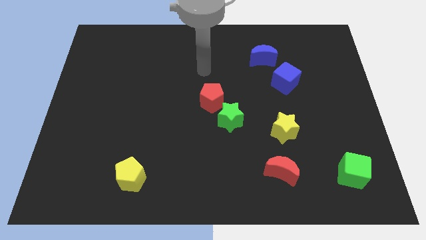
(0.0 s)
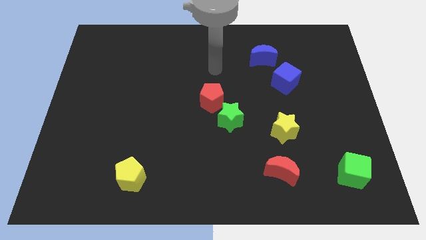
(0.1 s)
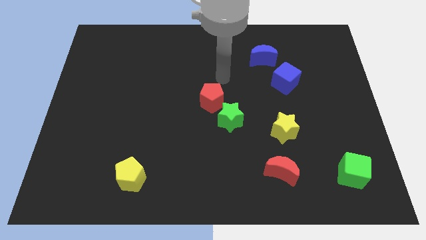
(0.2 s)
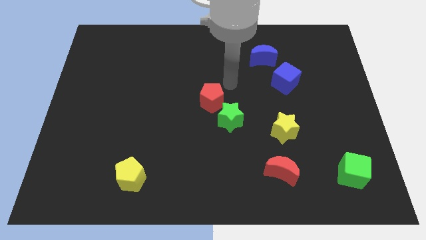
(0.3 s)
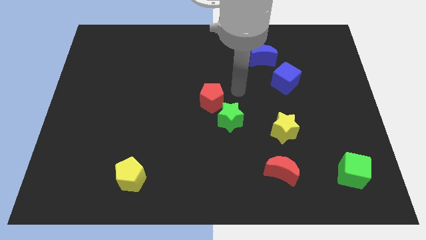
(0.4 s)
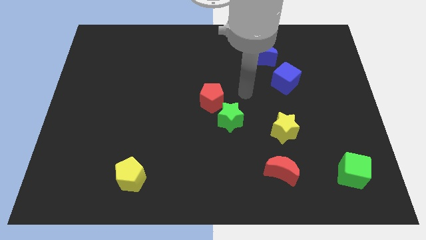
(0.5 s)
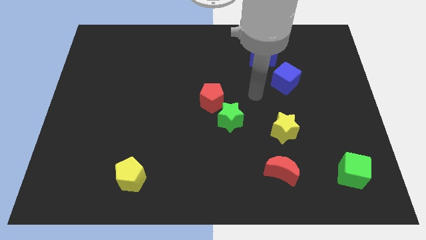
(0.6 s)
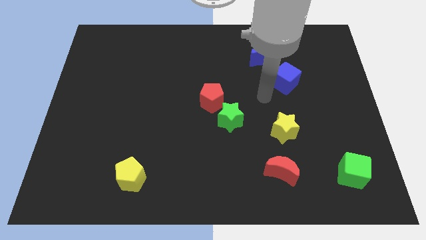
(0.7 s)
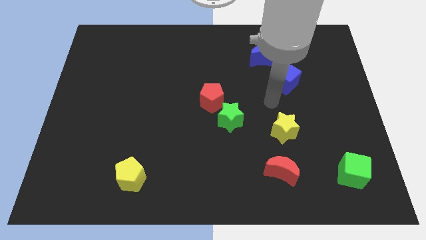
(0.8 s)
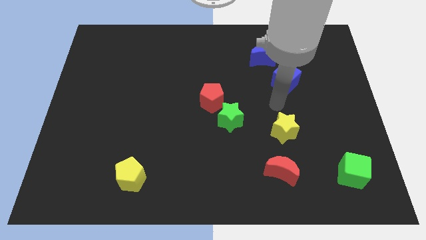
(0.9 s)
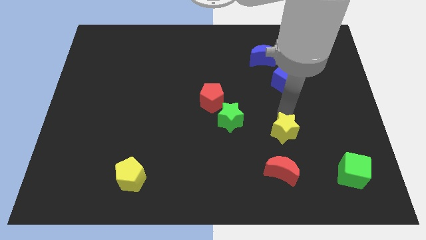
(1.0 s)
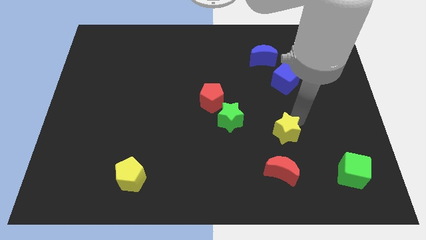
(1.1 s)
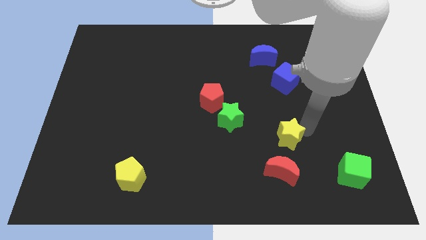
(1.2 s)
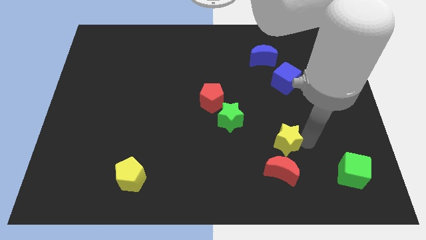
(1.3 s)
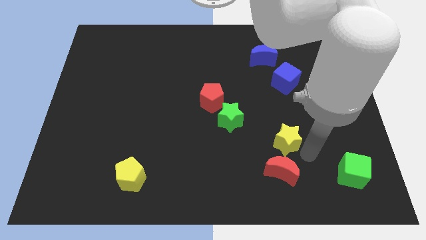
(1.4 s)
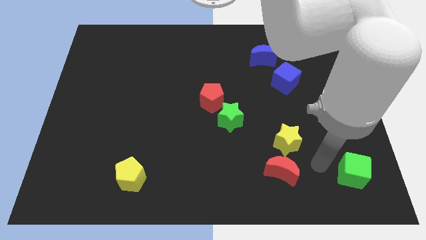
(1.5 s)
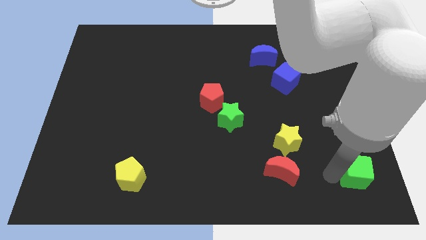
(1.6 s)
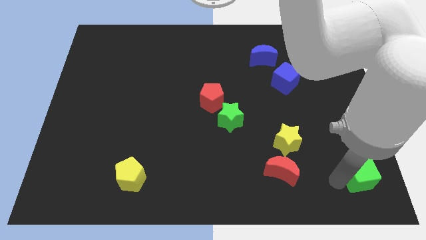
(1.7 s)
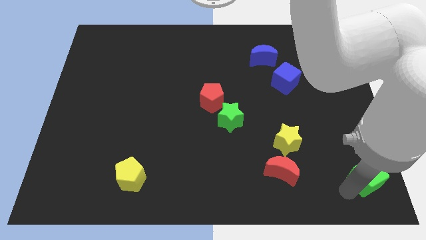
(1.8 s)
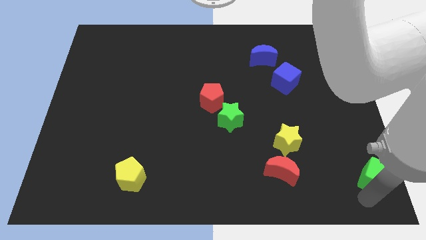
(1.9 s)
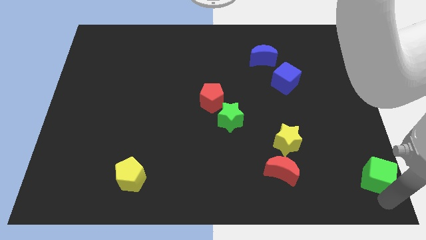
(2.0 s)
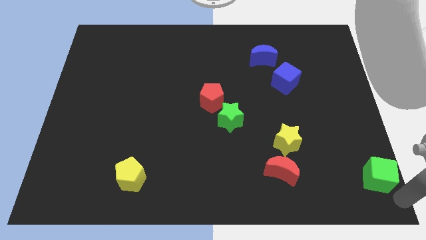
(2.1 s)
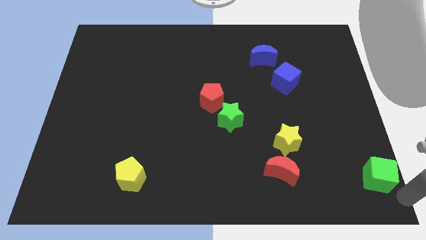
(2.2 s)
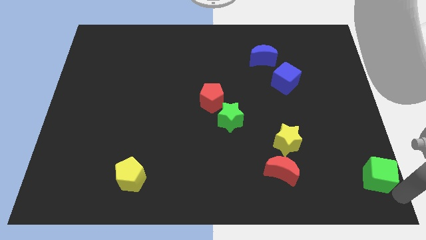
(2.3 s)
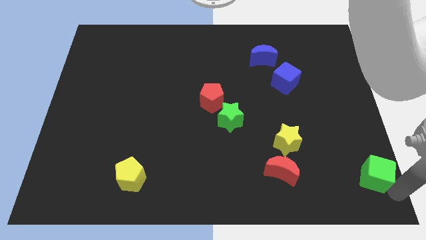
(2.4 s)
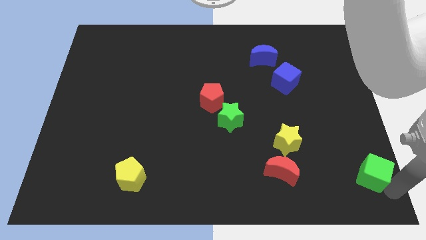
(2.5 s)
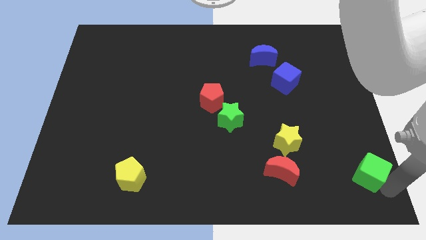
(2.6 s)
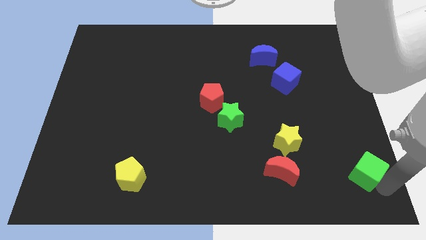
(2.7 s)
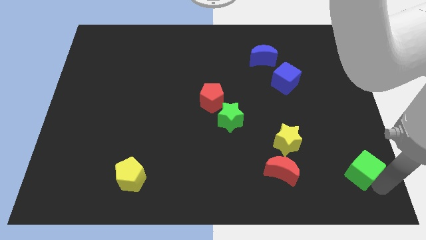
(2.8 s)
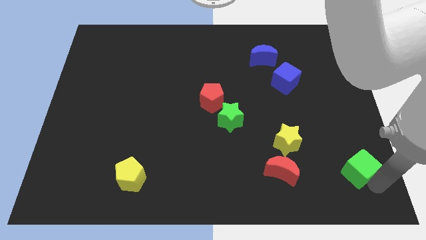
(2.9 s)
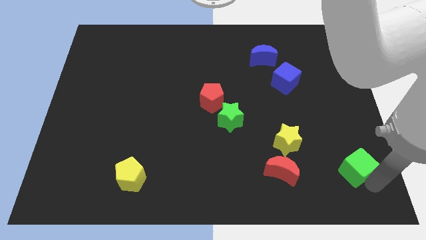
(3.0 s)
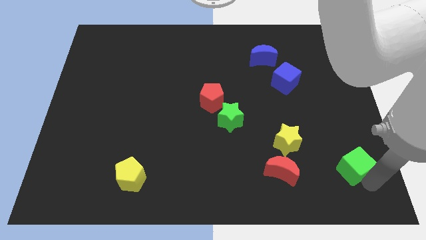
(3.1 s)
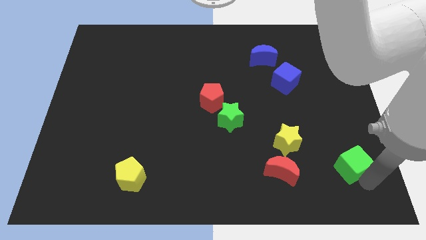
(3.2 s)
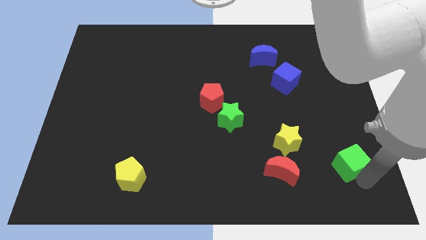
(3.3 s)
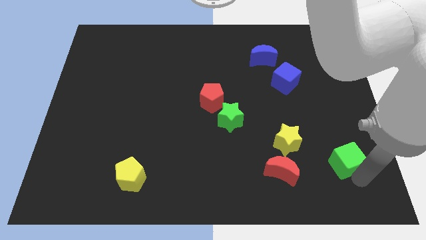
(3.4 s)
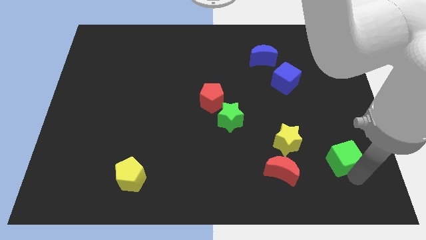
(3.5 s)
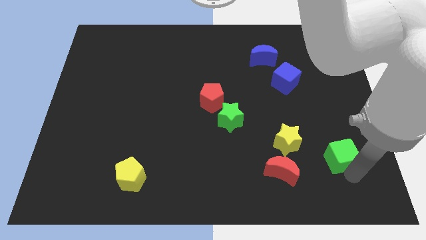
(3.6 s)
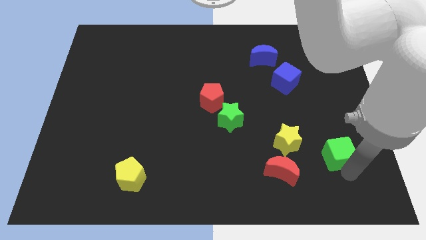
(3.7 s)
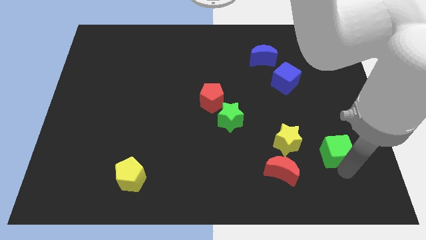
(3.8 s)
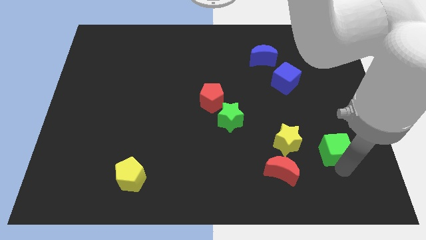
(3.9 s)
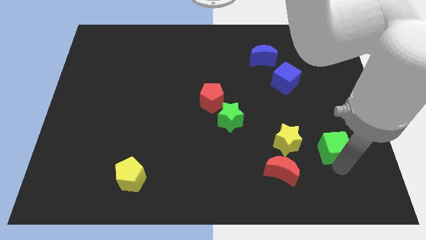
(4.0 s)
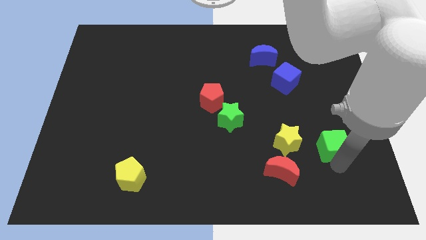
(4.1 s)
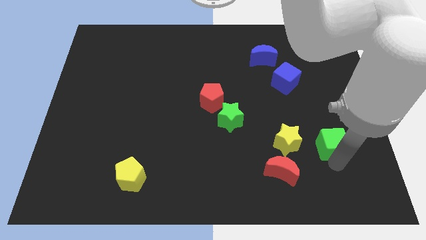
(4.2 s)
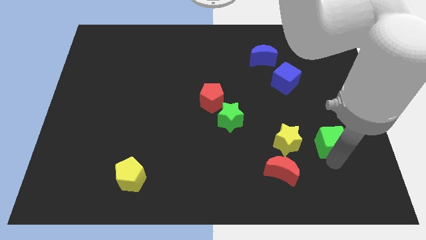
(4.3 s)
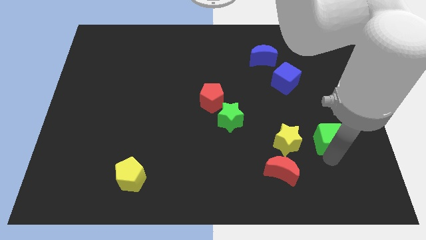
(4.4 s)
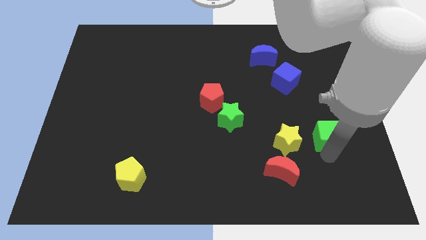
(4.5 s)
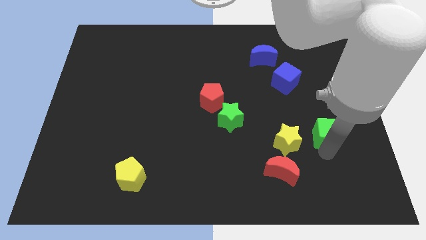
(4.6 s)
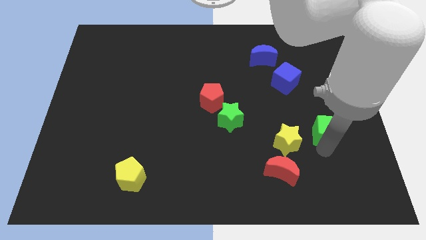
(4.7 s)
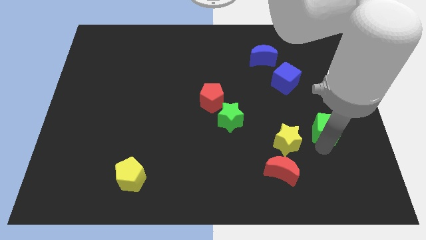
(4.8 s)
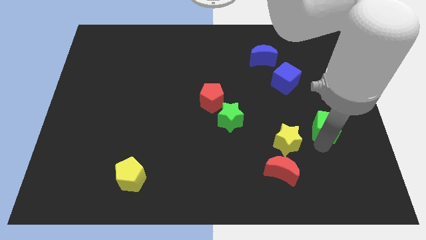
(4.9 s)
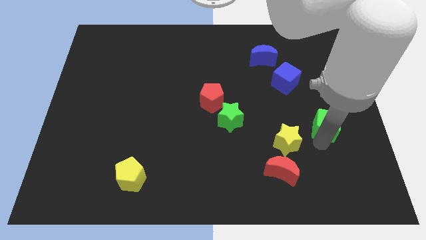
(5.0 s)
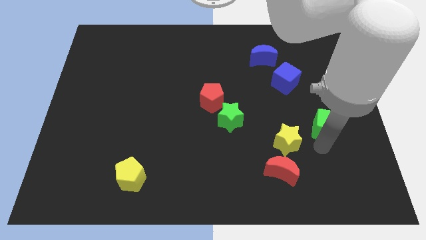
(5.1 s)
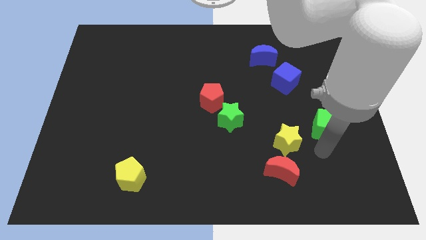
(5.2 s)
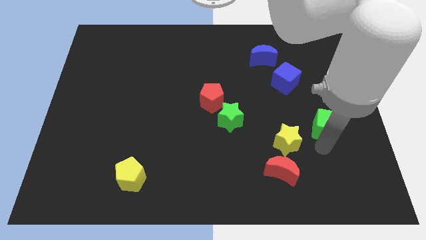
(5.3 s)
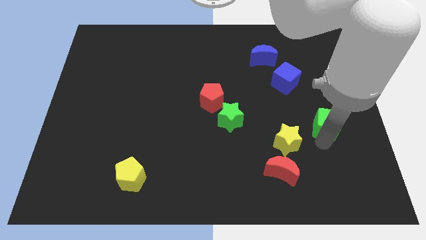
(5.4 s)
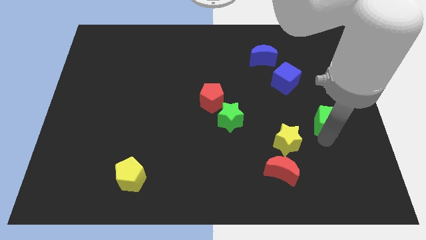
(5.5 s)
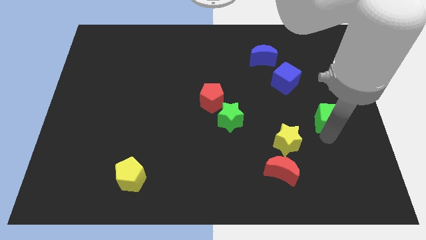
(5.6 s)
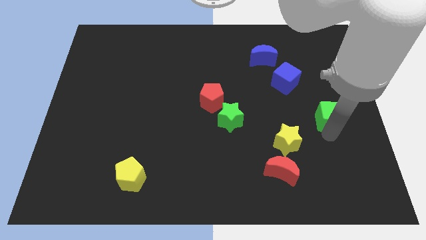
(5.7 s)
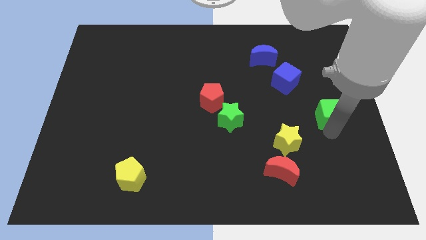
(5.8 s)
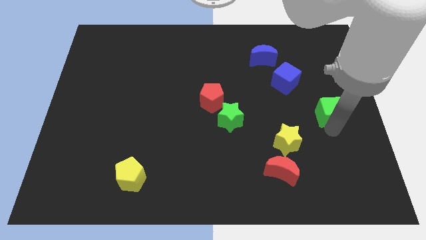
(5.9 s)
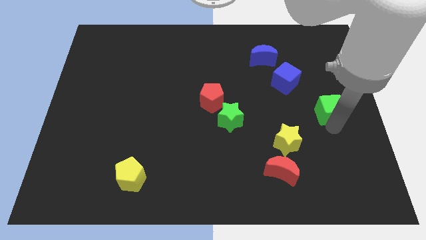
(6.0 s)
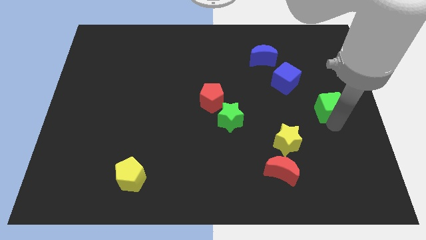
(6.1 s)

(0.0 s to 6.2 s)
put the green cube to the bottom right side of the blue cube
